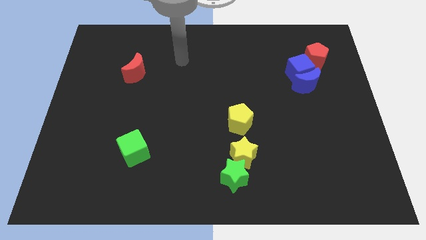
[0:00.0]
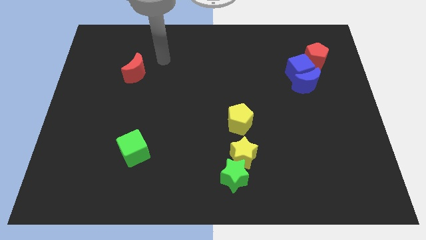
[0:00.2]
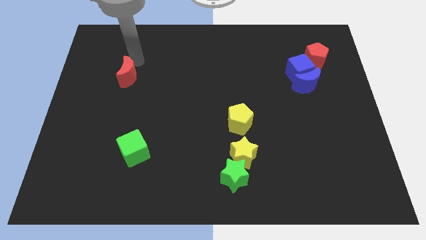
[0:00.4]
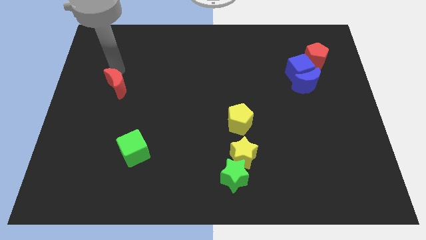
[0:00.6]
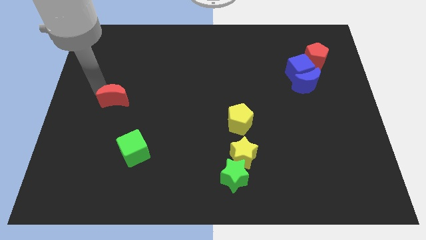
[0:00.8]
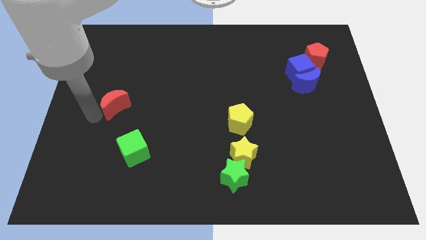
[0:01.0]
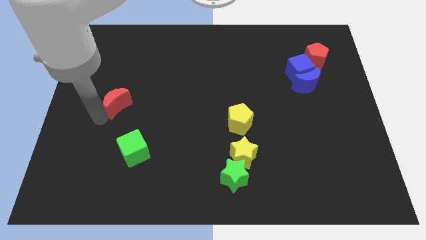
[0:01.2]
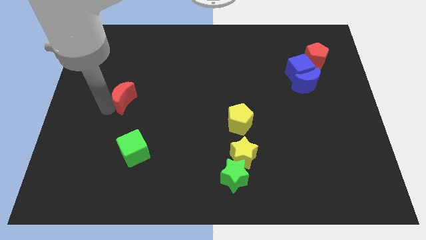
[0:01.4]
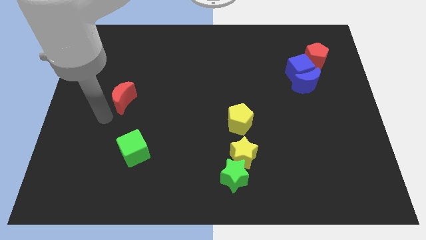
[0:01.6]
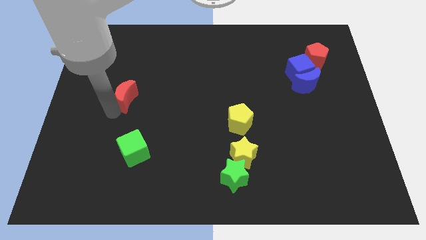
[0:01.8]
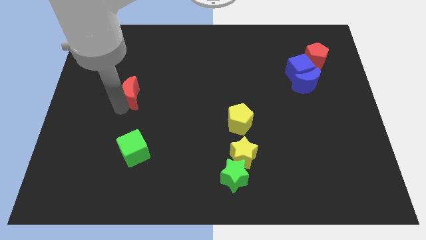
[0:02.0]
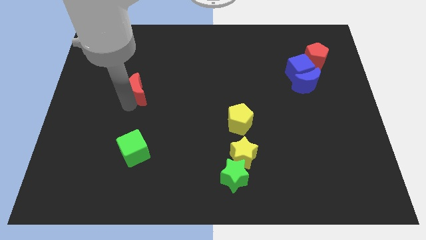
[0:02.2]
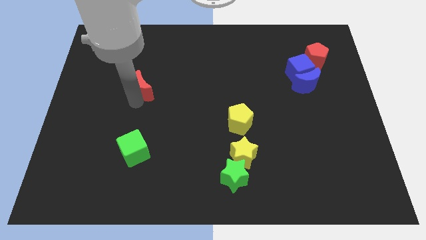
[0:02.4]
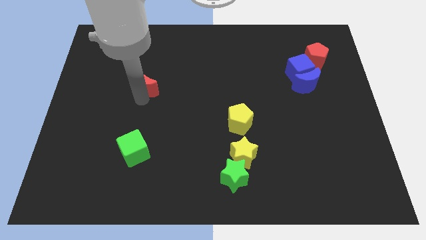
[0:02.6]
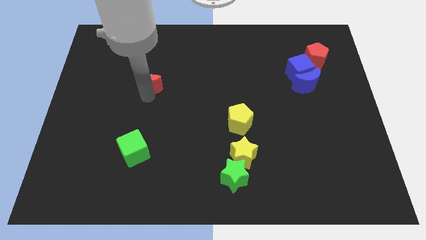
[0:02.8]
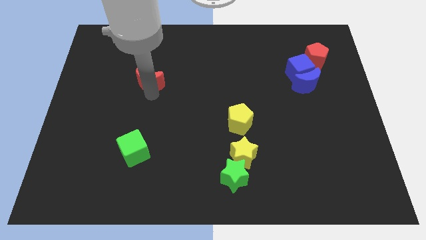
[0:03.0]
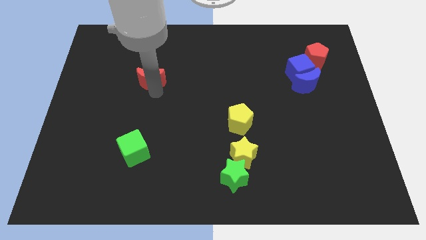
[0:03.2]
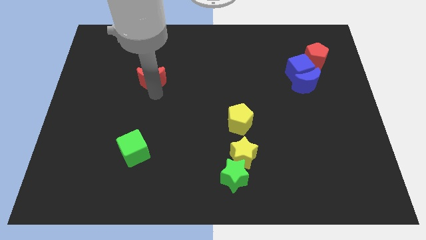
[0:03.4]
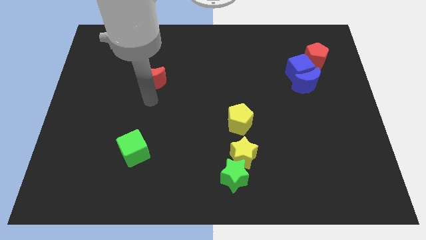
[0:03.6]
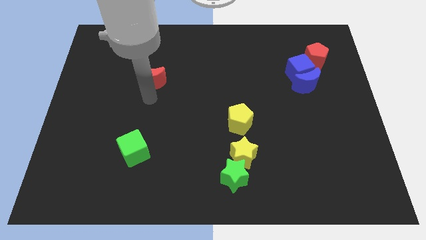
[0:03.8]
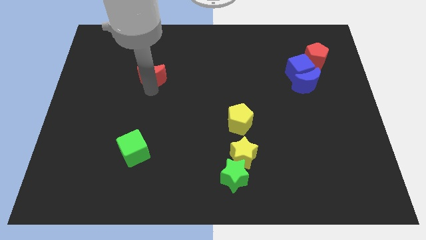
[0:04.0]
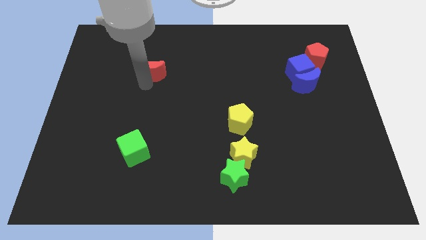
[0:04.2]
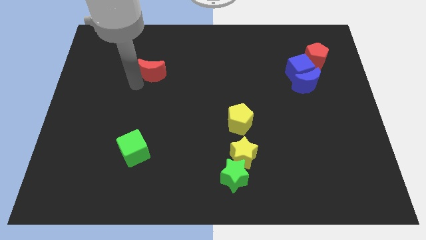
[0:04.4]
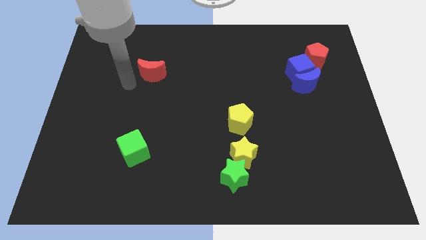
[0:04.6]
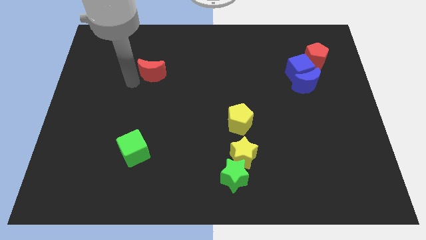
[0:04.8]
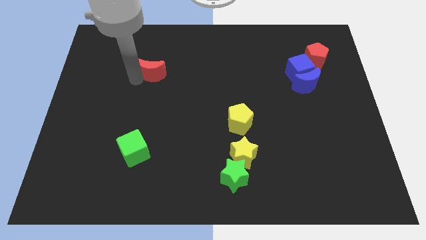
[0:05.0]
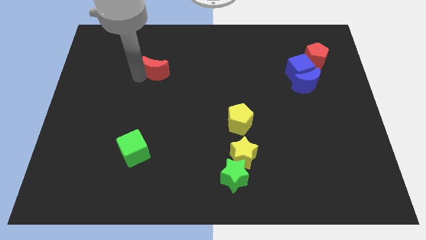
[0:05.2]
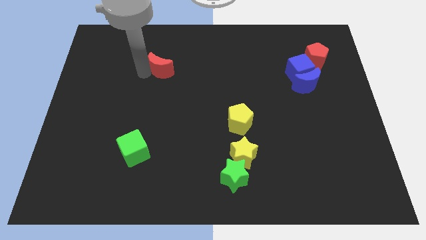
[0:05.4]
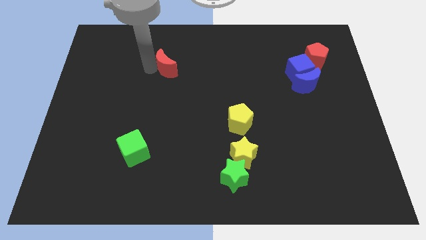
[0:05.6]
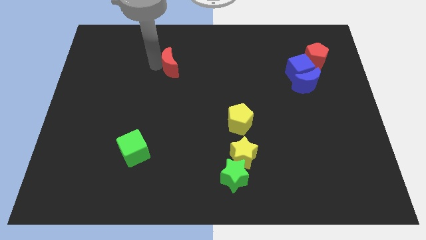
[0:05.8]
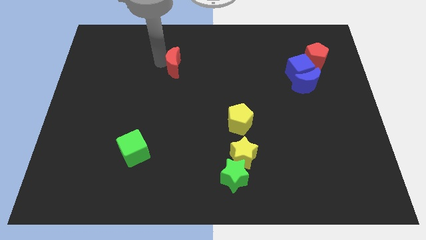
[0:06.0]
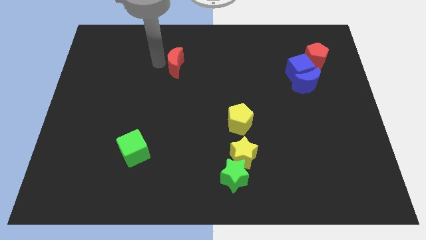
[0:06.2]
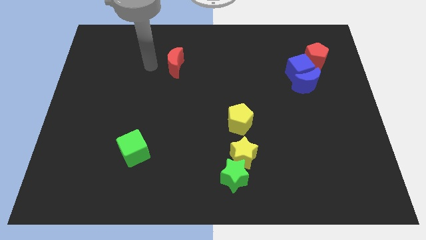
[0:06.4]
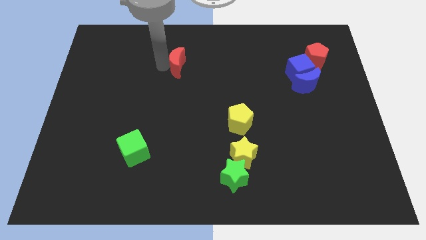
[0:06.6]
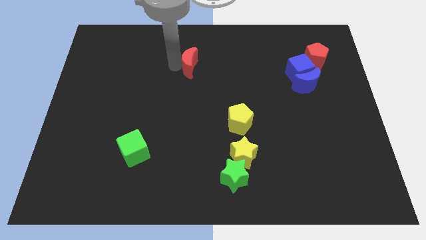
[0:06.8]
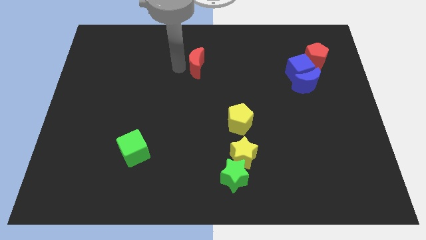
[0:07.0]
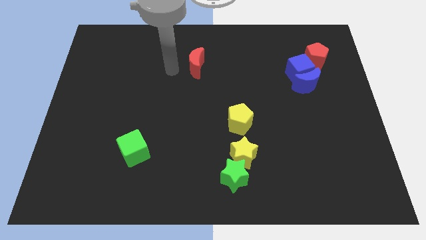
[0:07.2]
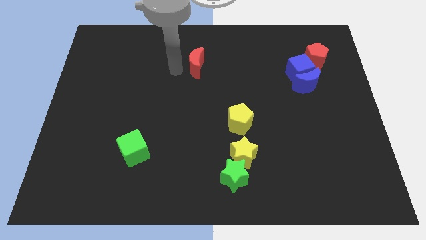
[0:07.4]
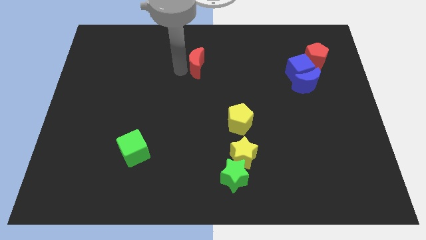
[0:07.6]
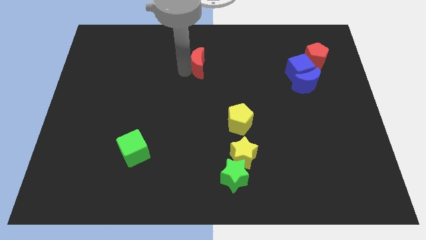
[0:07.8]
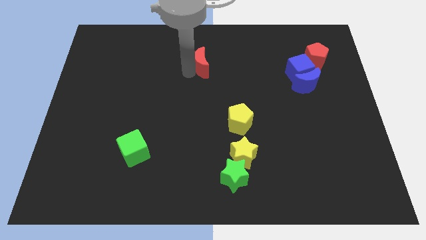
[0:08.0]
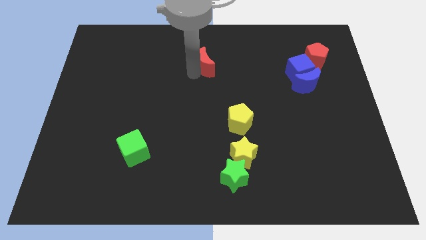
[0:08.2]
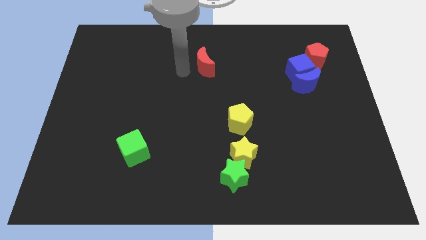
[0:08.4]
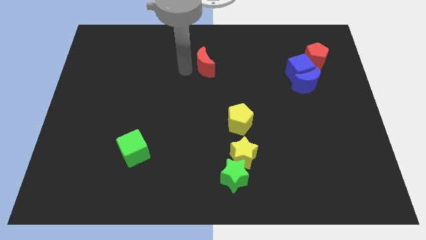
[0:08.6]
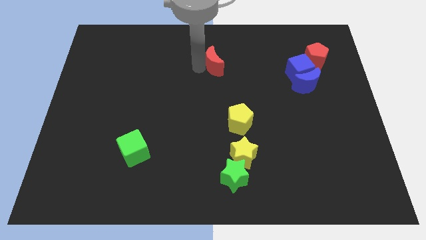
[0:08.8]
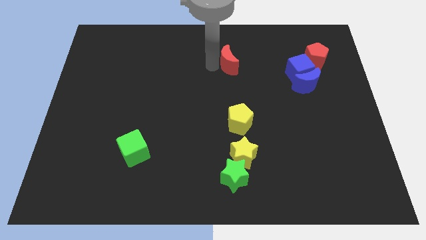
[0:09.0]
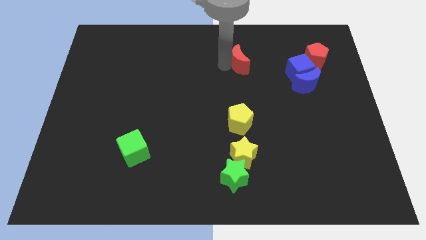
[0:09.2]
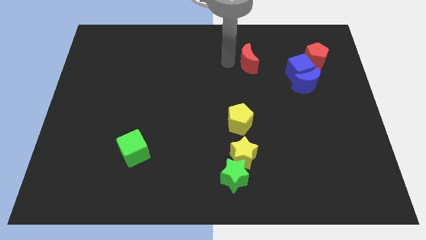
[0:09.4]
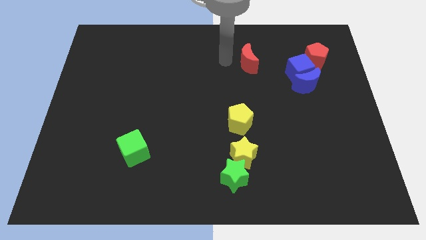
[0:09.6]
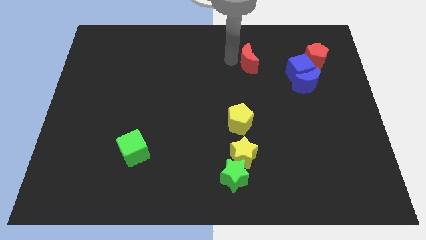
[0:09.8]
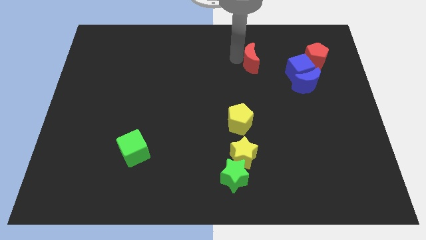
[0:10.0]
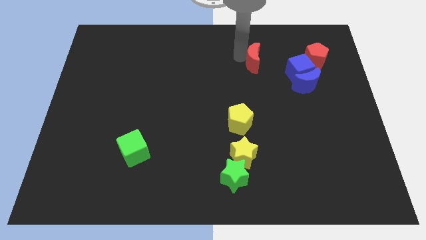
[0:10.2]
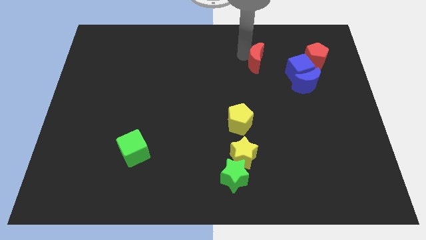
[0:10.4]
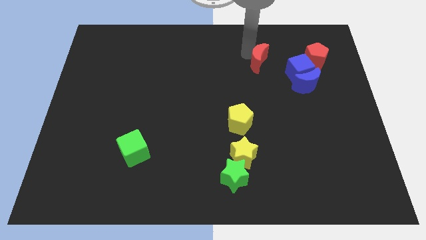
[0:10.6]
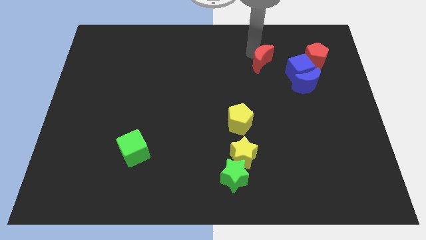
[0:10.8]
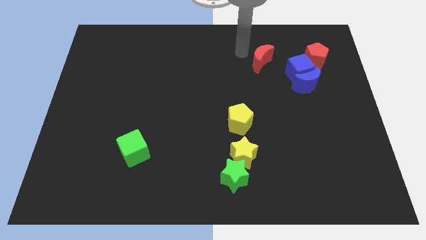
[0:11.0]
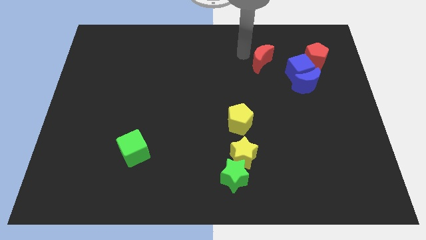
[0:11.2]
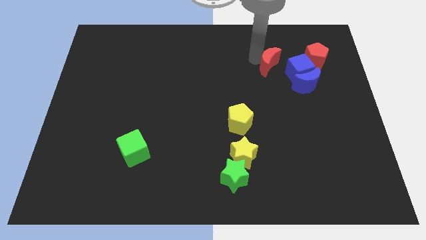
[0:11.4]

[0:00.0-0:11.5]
put the red moon diagonally up and to the left of the blue moon

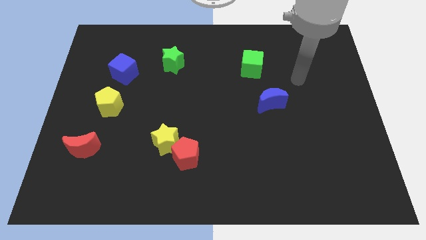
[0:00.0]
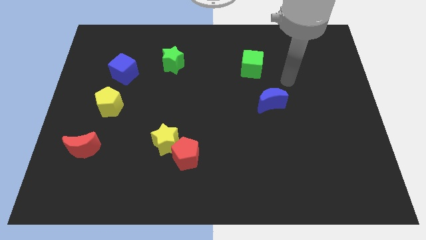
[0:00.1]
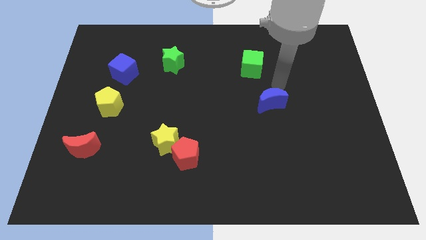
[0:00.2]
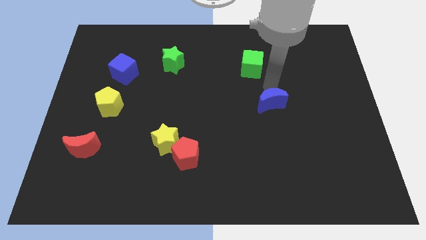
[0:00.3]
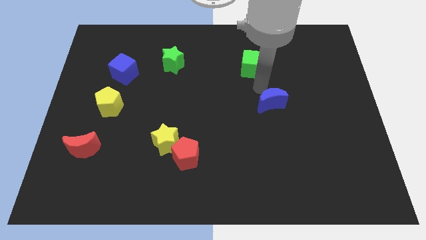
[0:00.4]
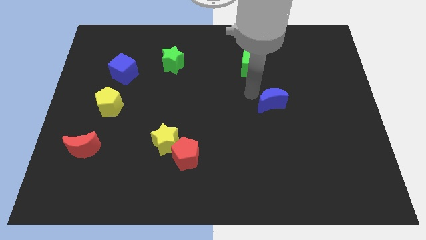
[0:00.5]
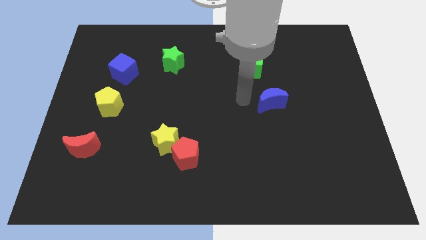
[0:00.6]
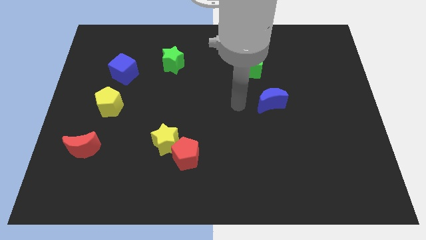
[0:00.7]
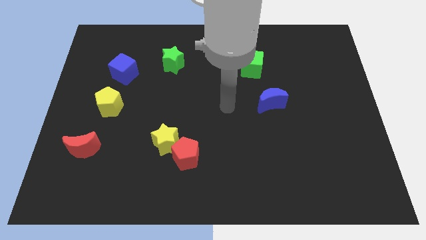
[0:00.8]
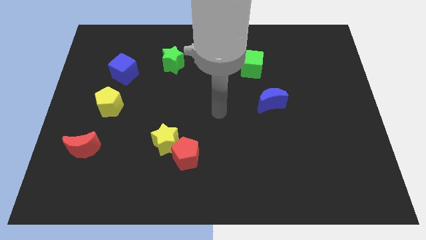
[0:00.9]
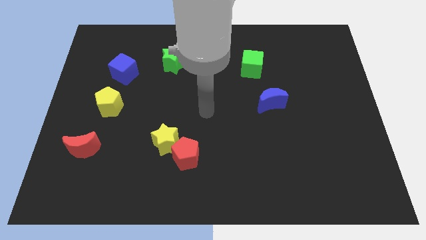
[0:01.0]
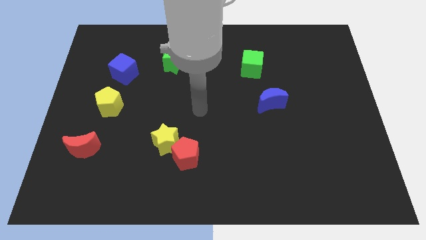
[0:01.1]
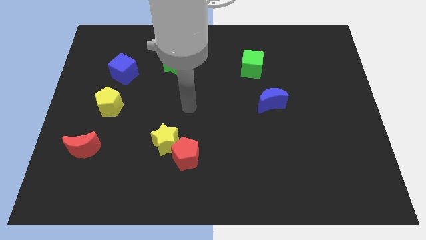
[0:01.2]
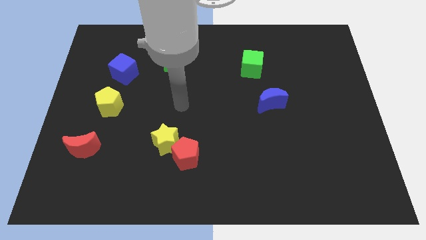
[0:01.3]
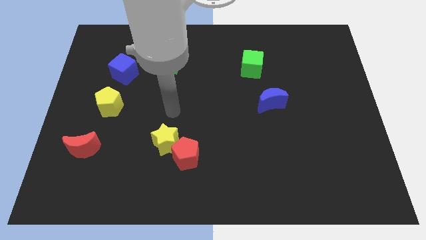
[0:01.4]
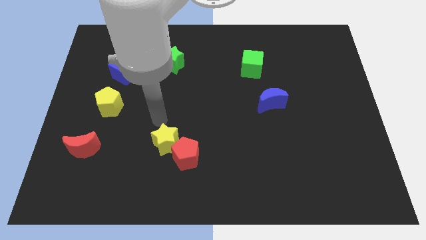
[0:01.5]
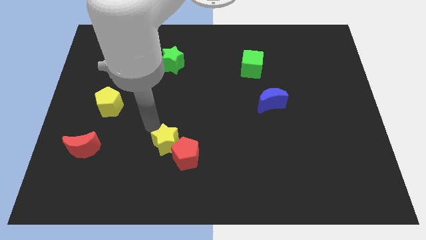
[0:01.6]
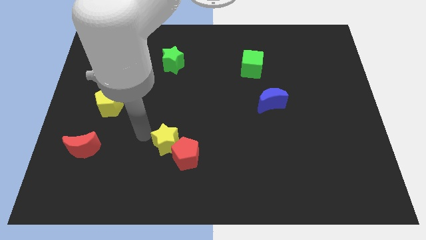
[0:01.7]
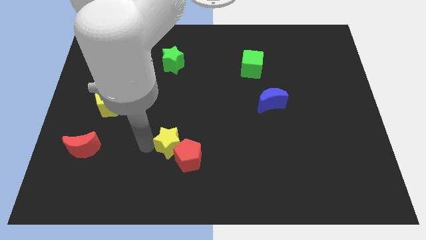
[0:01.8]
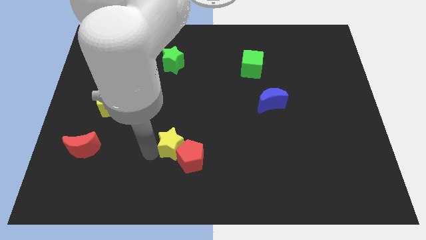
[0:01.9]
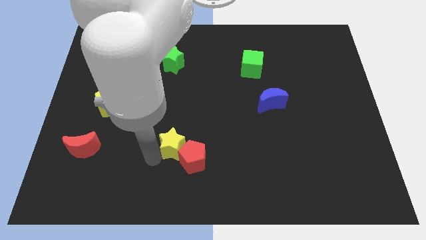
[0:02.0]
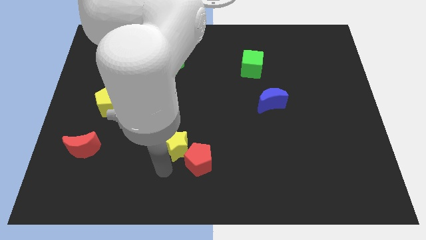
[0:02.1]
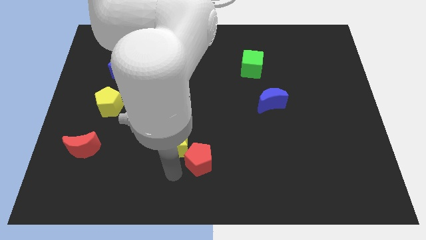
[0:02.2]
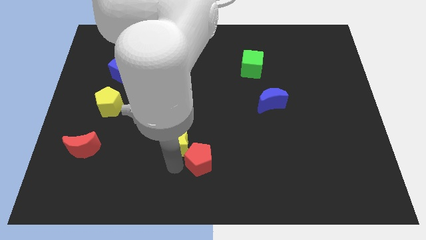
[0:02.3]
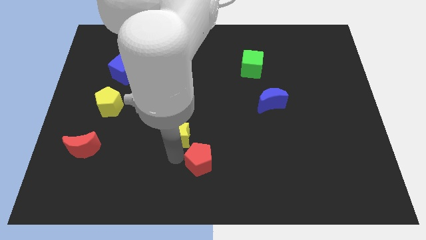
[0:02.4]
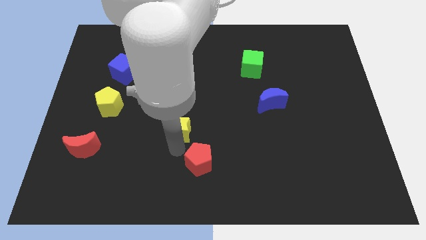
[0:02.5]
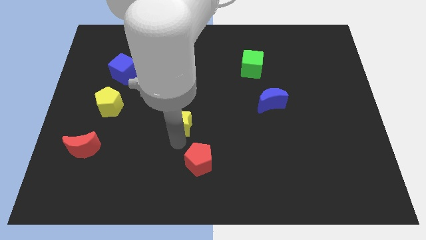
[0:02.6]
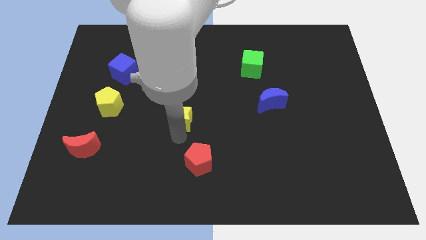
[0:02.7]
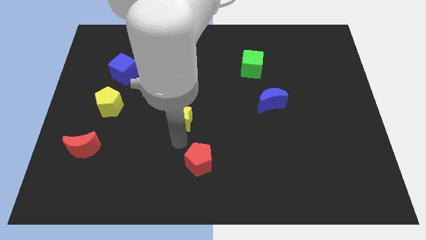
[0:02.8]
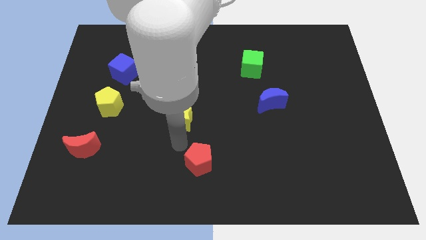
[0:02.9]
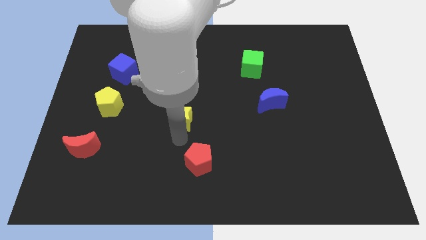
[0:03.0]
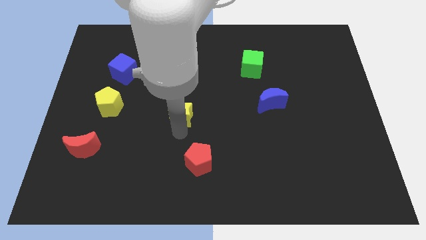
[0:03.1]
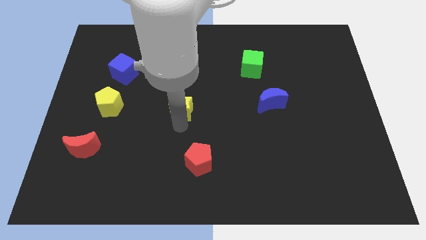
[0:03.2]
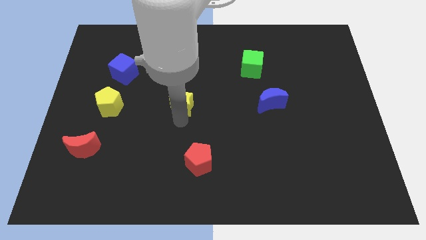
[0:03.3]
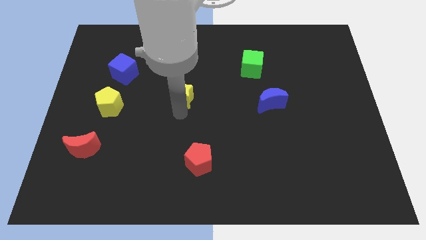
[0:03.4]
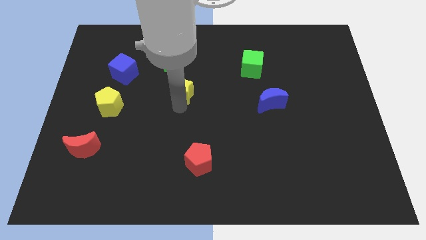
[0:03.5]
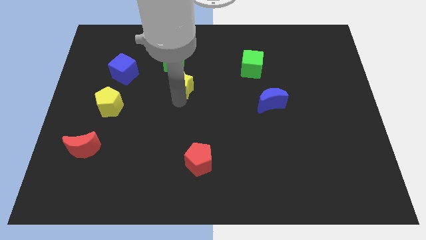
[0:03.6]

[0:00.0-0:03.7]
move the yellow star to the bottom right of the green star
